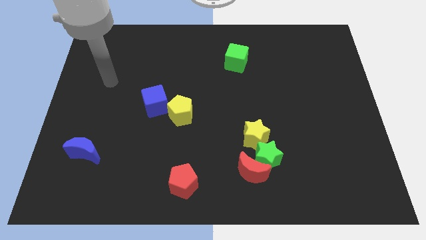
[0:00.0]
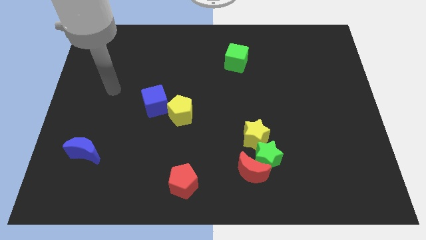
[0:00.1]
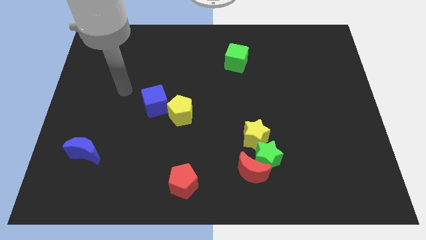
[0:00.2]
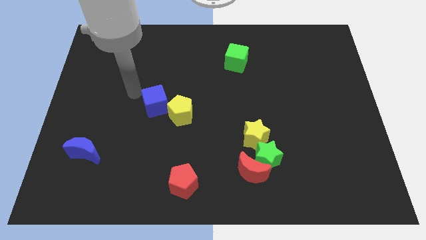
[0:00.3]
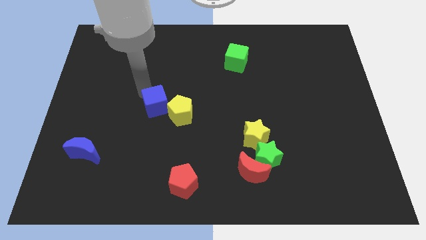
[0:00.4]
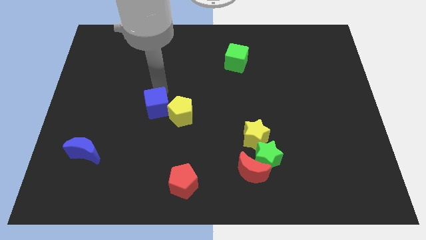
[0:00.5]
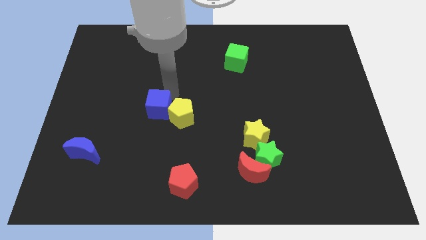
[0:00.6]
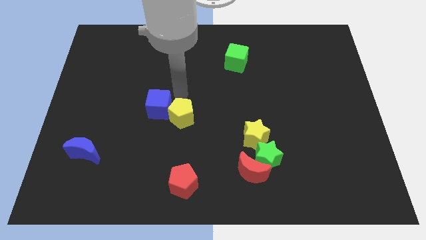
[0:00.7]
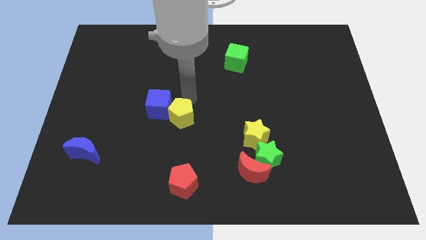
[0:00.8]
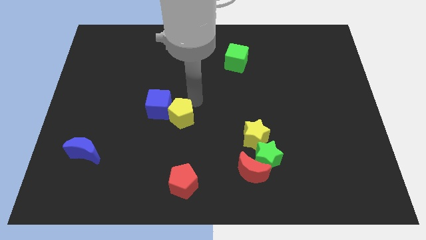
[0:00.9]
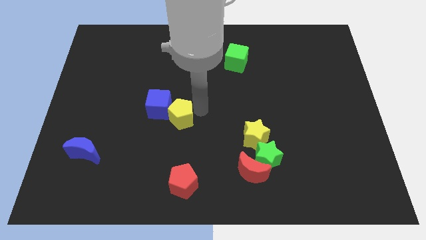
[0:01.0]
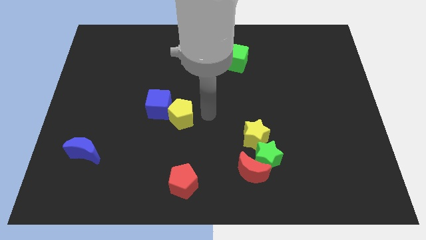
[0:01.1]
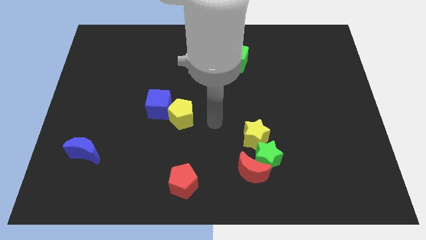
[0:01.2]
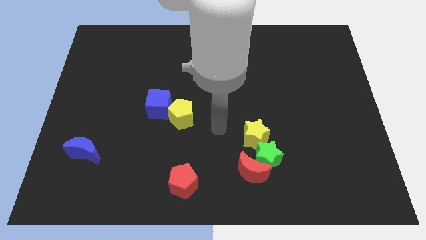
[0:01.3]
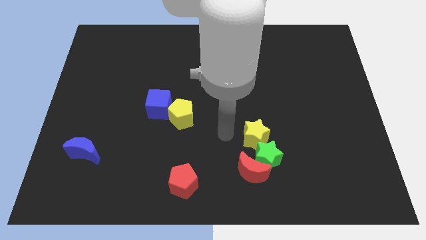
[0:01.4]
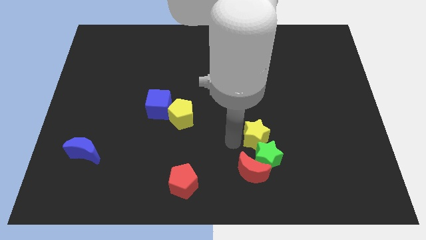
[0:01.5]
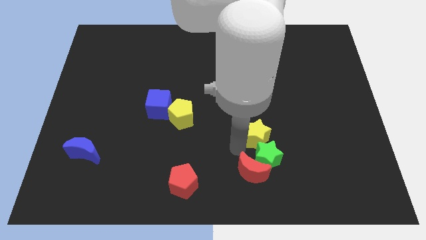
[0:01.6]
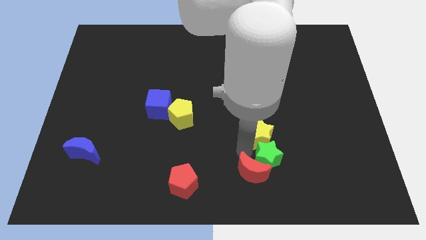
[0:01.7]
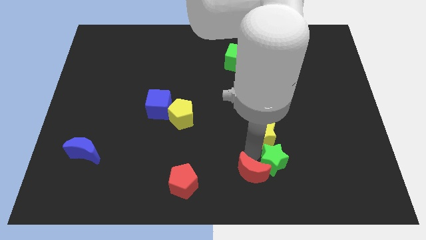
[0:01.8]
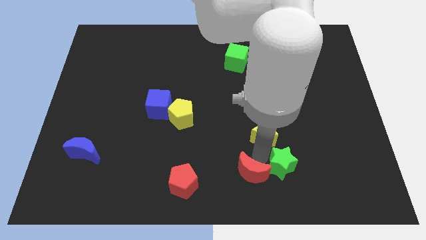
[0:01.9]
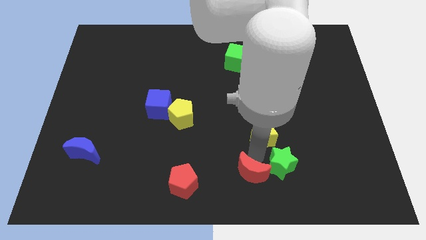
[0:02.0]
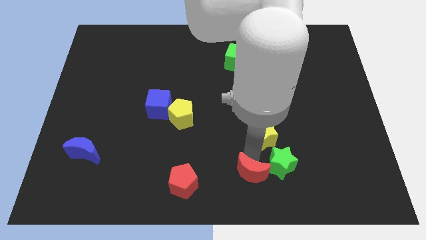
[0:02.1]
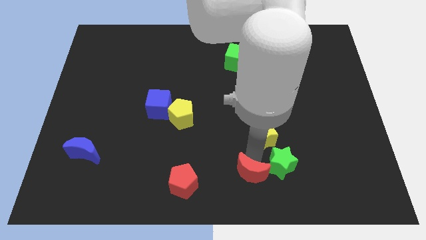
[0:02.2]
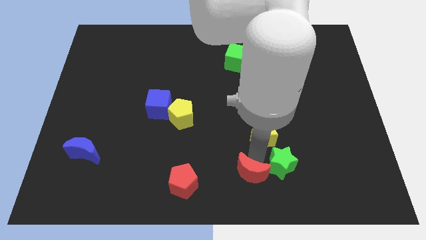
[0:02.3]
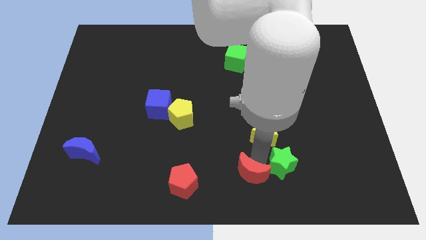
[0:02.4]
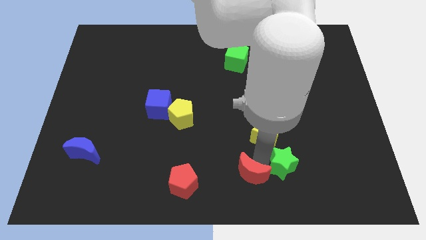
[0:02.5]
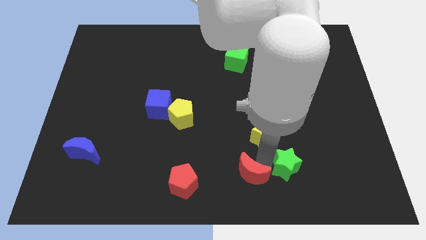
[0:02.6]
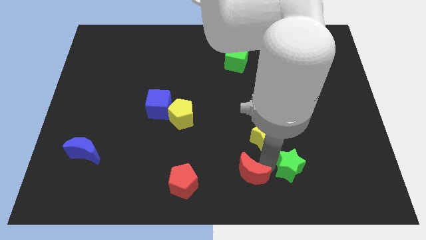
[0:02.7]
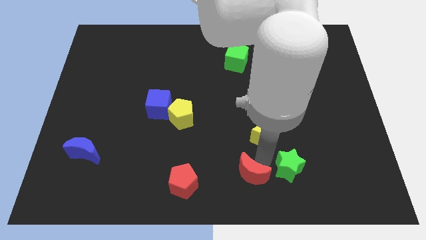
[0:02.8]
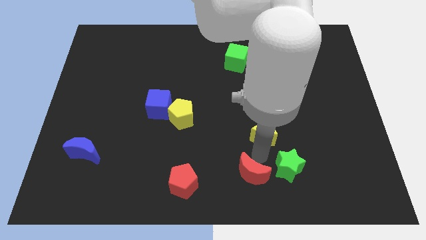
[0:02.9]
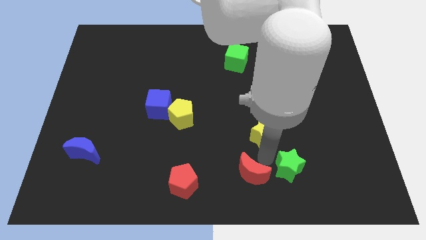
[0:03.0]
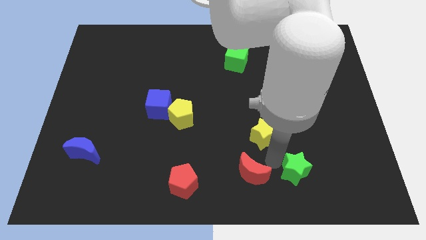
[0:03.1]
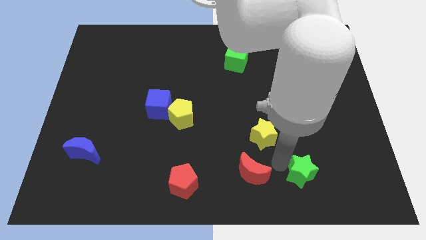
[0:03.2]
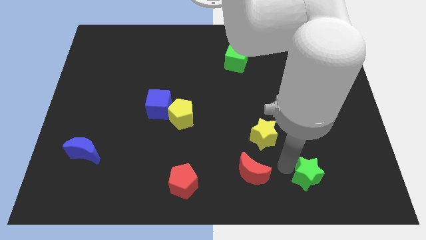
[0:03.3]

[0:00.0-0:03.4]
separate the green star from the red moon and yellow star

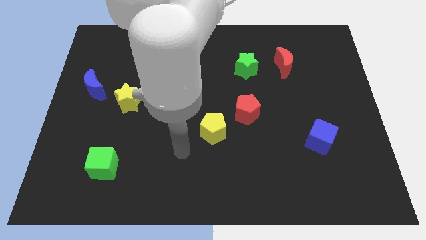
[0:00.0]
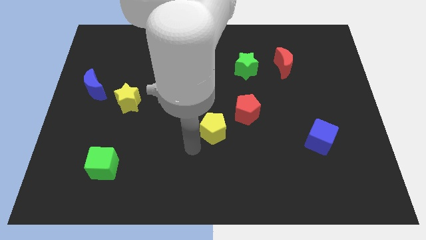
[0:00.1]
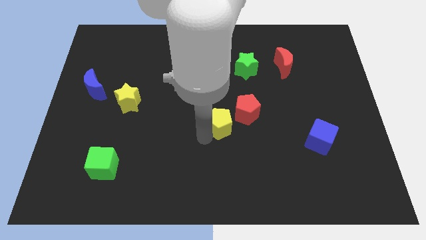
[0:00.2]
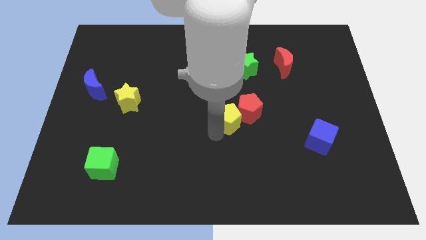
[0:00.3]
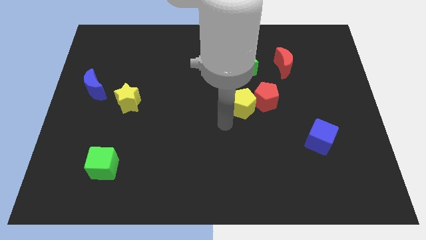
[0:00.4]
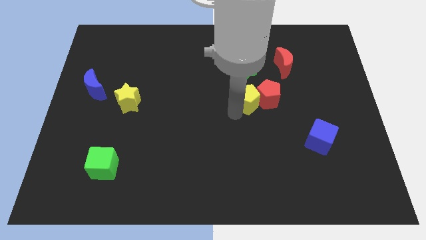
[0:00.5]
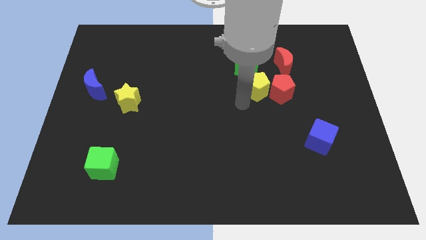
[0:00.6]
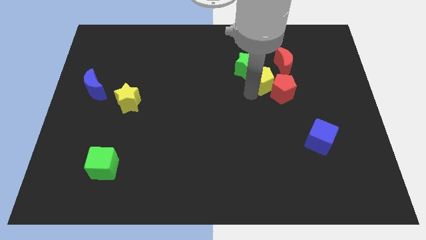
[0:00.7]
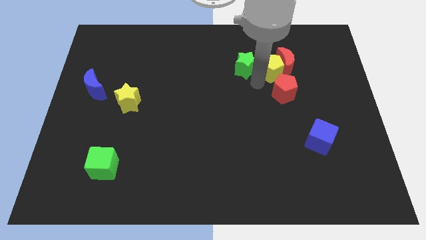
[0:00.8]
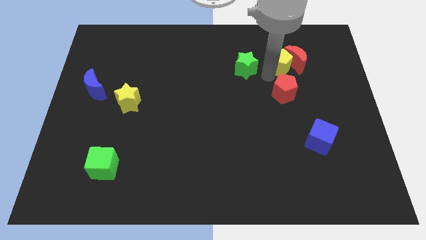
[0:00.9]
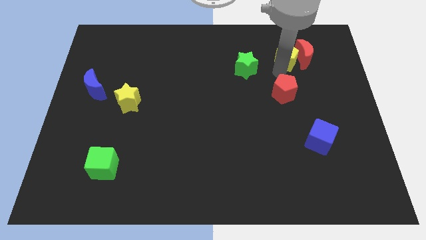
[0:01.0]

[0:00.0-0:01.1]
separate the red pentagon from the yellow pentagon

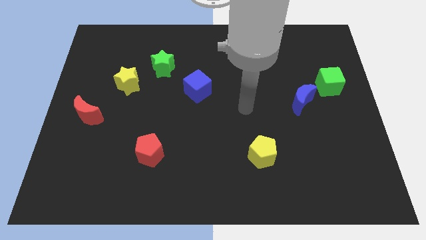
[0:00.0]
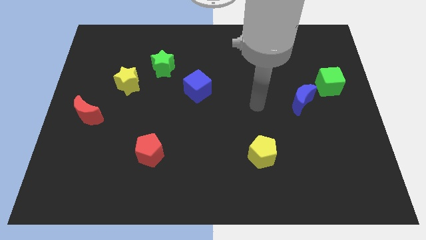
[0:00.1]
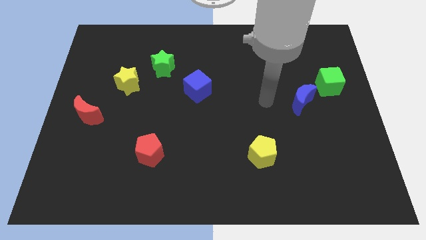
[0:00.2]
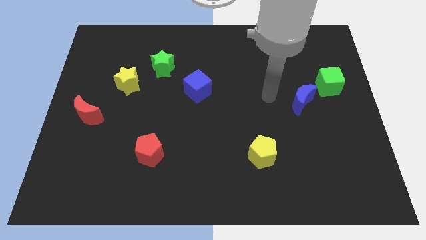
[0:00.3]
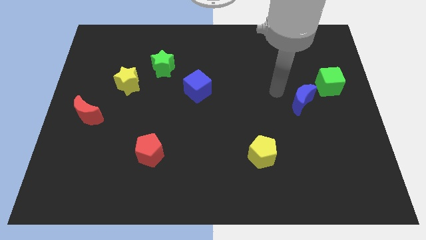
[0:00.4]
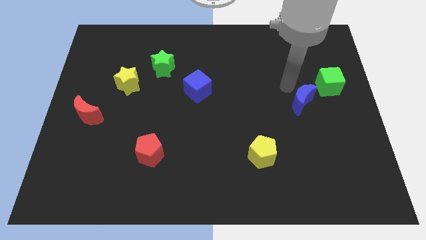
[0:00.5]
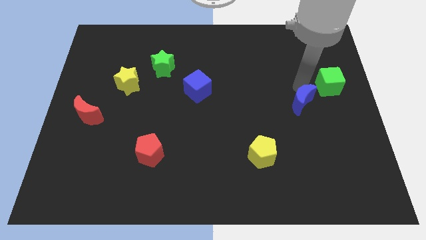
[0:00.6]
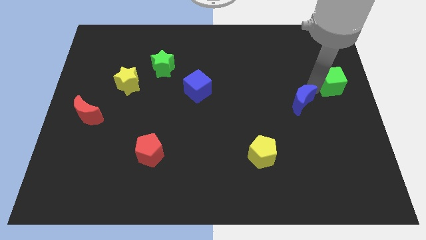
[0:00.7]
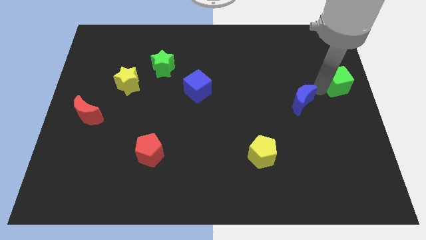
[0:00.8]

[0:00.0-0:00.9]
move the blue moon away from the green cube

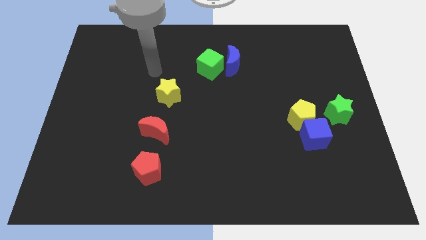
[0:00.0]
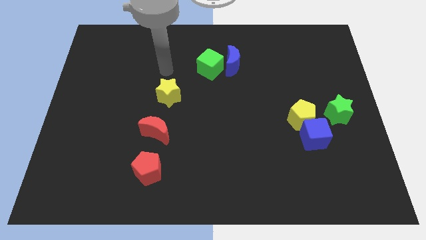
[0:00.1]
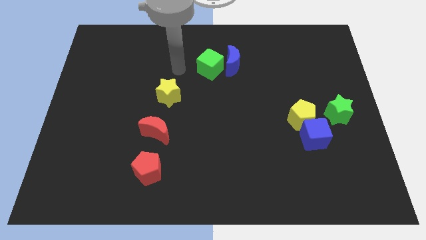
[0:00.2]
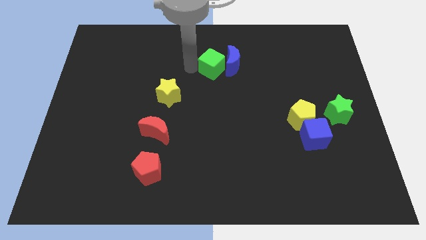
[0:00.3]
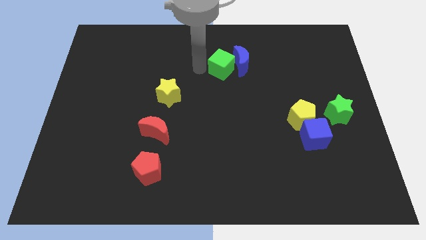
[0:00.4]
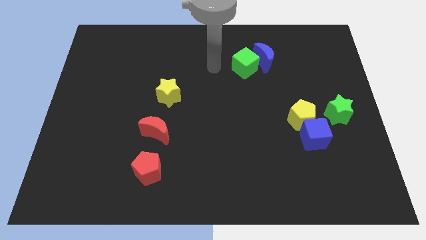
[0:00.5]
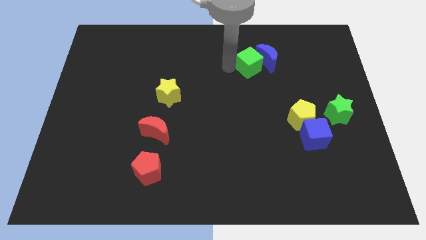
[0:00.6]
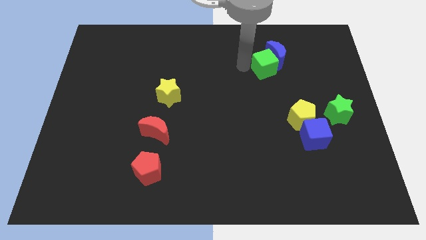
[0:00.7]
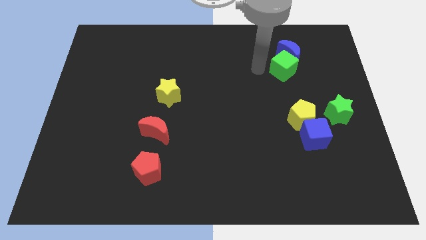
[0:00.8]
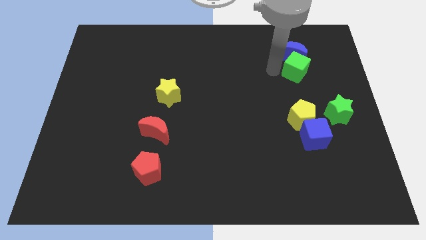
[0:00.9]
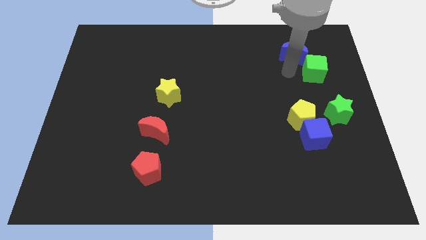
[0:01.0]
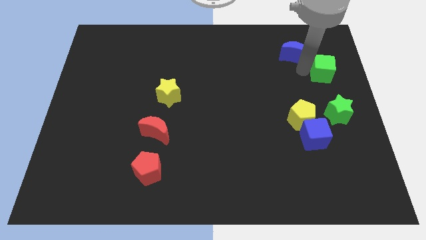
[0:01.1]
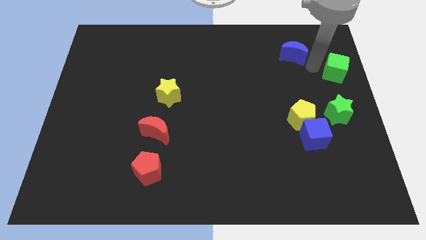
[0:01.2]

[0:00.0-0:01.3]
pull the blue moon apart from the green cube

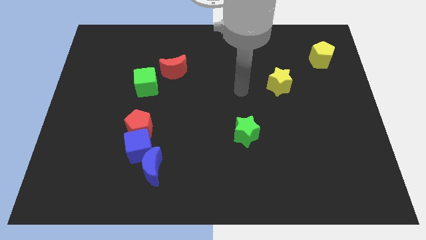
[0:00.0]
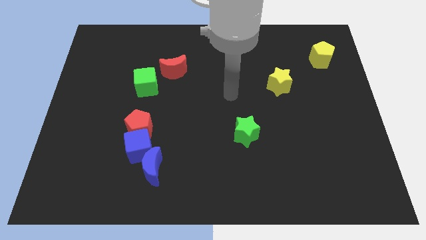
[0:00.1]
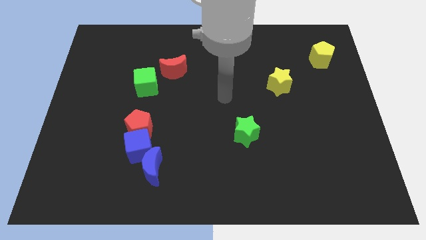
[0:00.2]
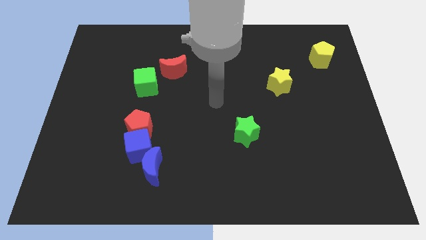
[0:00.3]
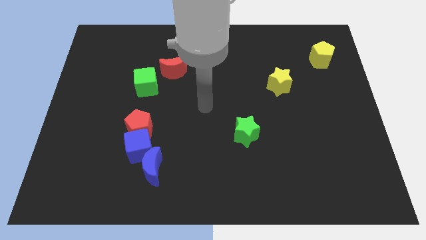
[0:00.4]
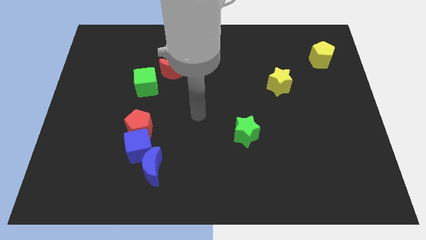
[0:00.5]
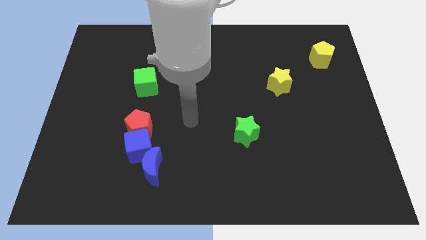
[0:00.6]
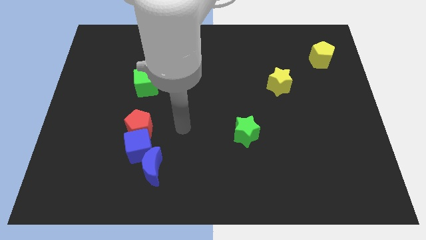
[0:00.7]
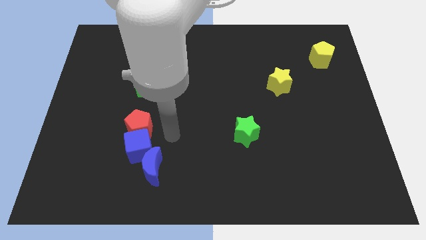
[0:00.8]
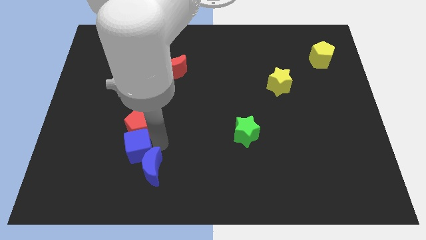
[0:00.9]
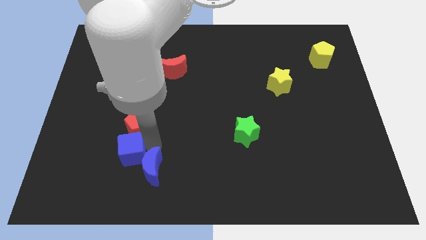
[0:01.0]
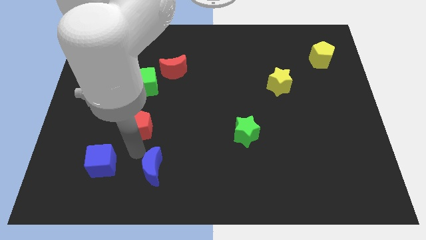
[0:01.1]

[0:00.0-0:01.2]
move the red pentagon away from the blue cube

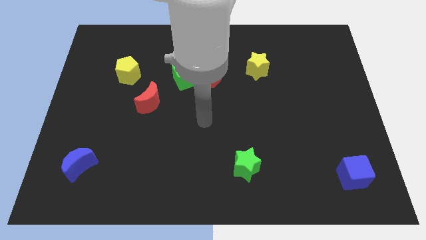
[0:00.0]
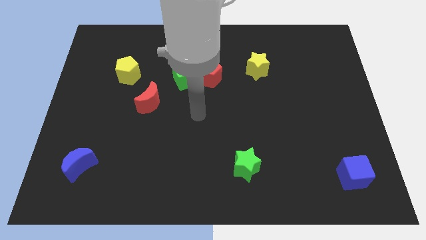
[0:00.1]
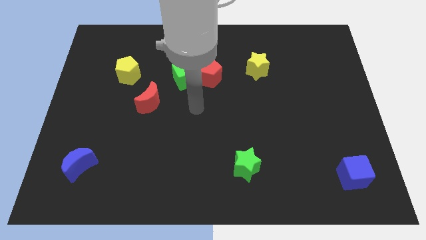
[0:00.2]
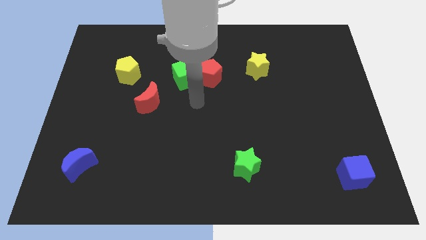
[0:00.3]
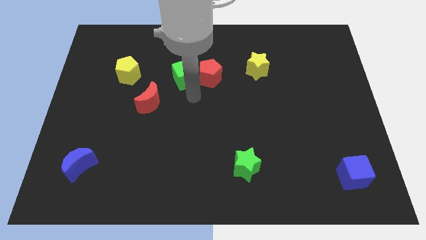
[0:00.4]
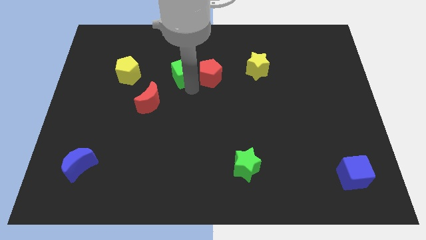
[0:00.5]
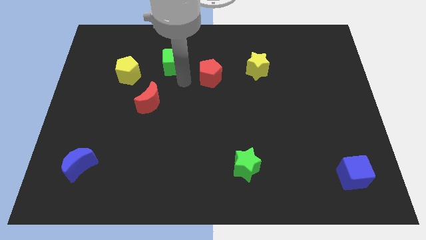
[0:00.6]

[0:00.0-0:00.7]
pull the red pentagon apart from the green cube

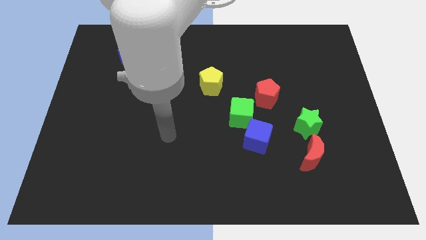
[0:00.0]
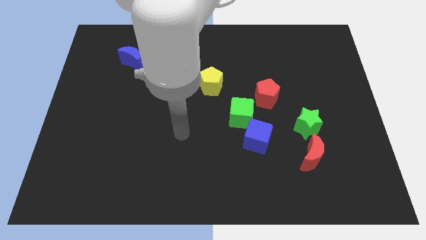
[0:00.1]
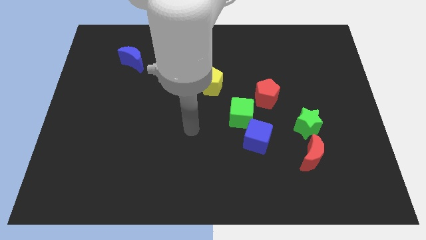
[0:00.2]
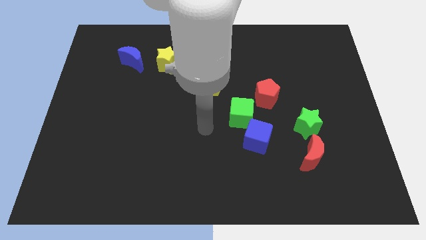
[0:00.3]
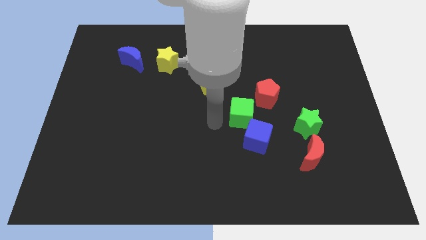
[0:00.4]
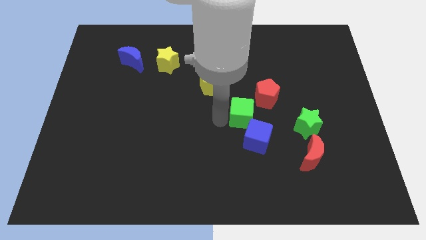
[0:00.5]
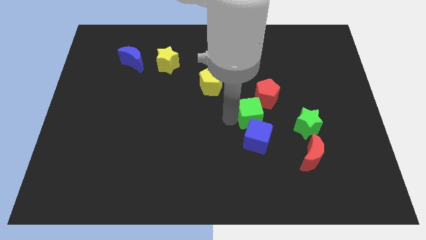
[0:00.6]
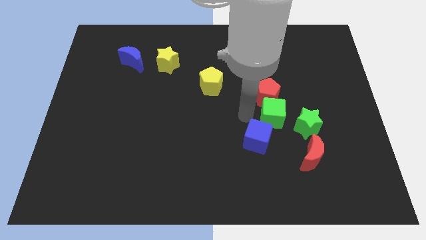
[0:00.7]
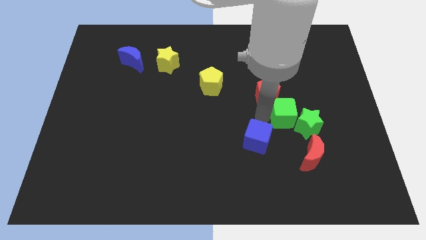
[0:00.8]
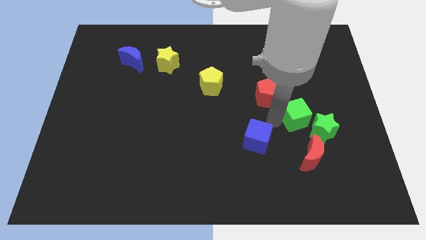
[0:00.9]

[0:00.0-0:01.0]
pull the blue cube apart from the green cube
